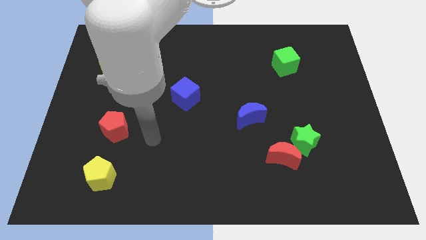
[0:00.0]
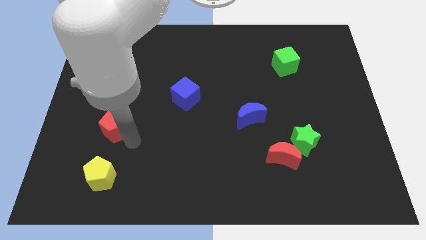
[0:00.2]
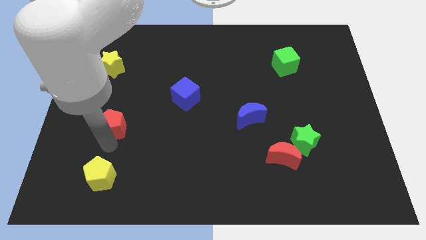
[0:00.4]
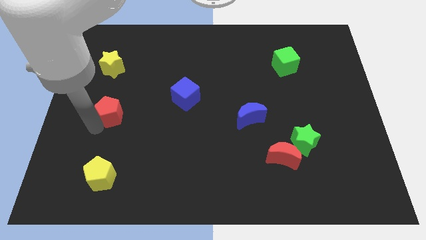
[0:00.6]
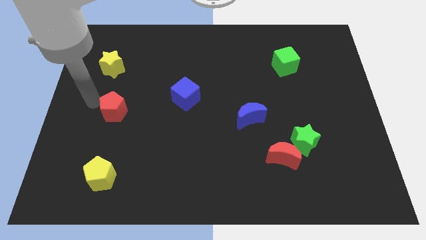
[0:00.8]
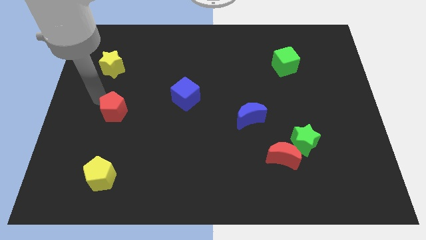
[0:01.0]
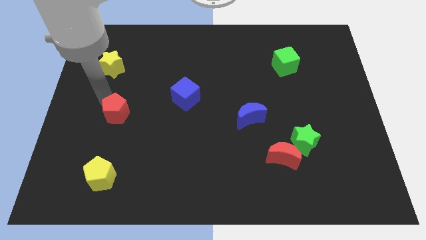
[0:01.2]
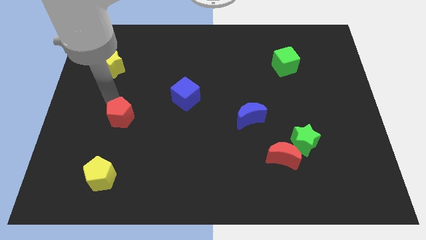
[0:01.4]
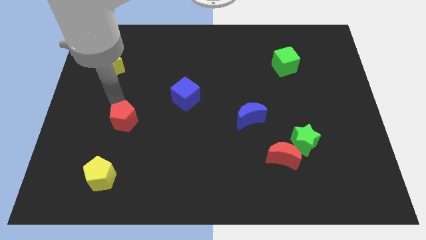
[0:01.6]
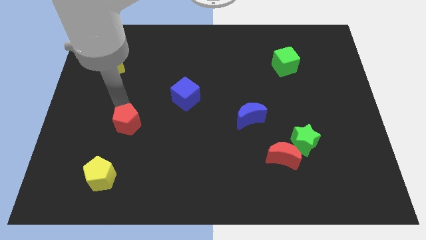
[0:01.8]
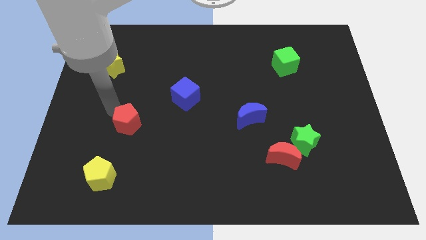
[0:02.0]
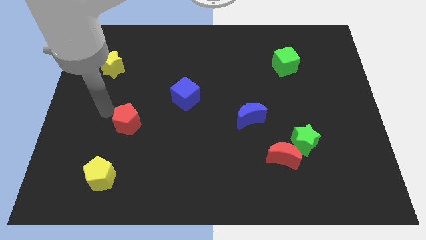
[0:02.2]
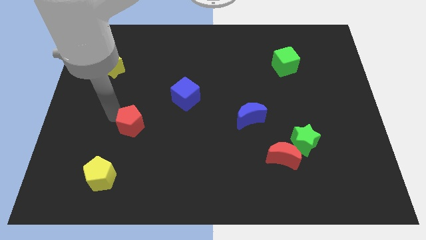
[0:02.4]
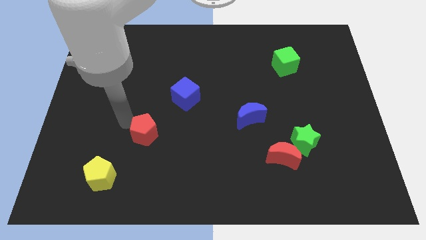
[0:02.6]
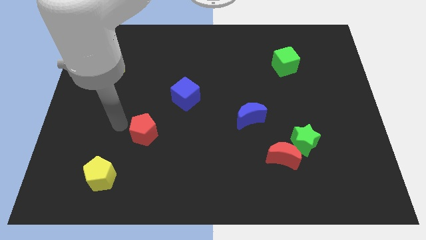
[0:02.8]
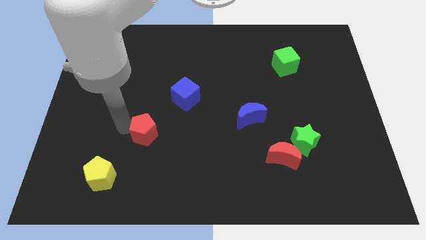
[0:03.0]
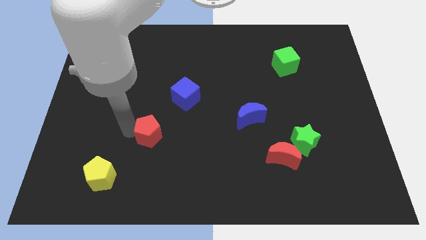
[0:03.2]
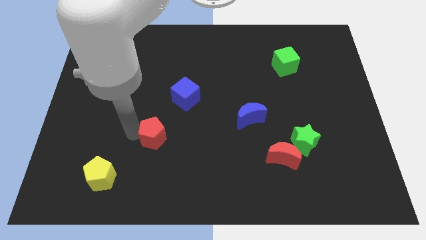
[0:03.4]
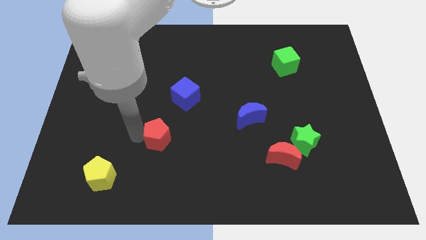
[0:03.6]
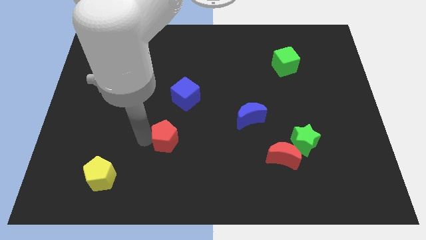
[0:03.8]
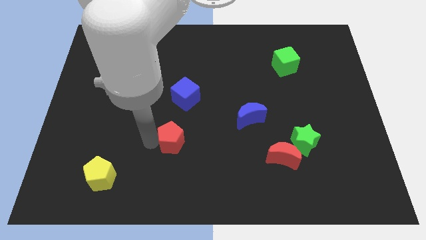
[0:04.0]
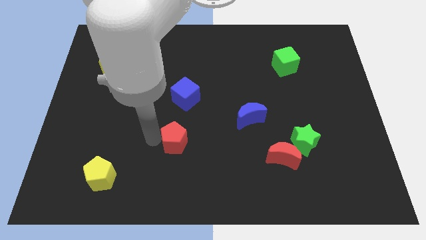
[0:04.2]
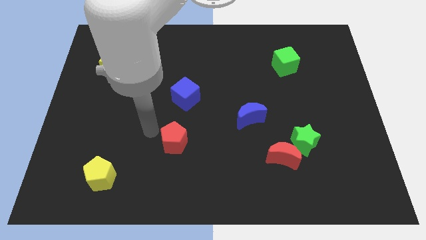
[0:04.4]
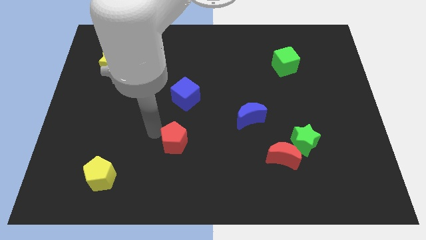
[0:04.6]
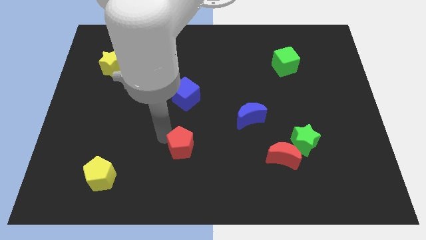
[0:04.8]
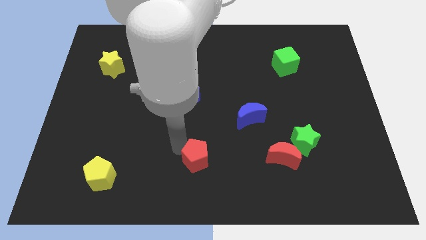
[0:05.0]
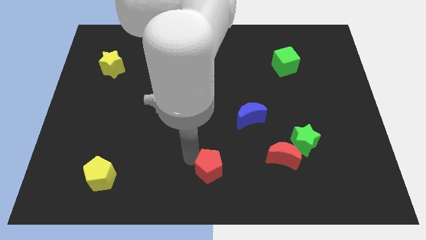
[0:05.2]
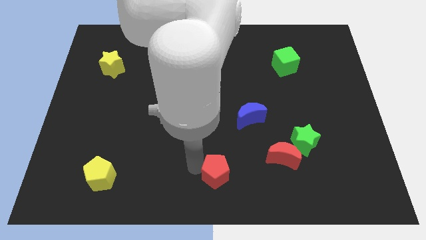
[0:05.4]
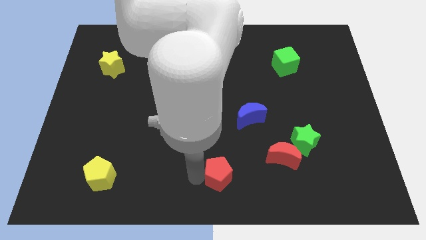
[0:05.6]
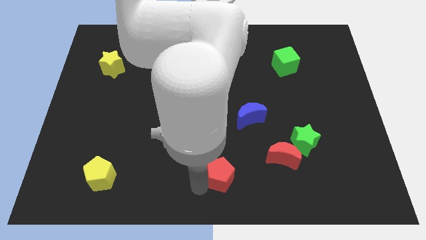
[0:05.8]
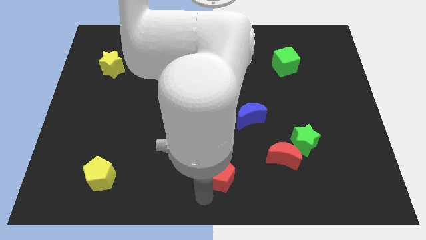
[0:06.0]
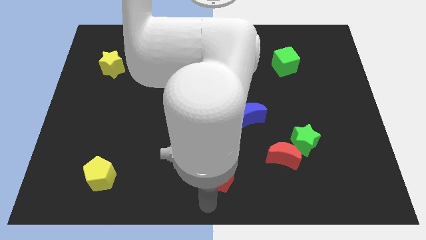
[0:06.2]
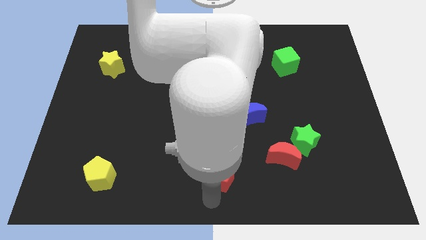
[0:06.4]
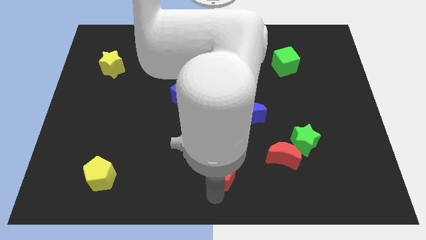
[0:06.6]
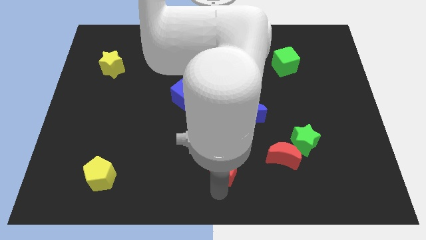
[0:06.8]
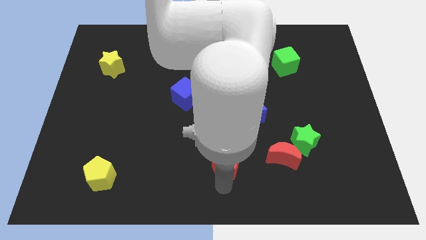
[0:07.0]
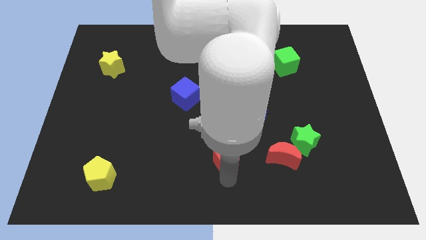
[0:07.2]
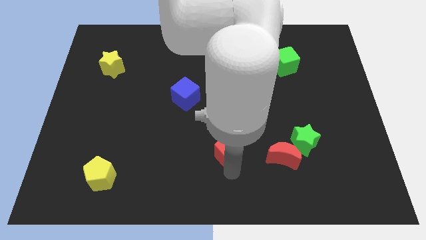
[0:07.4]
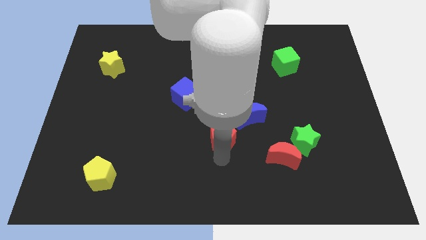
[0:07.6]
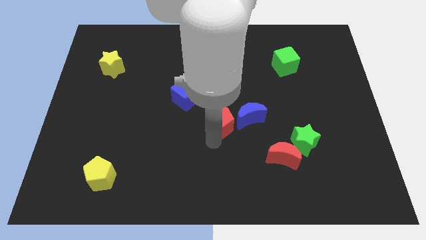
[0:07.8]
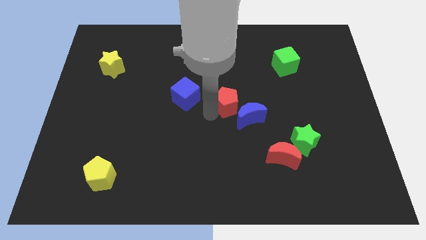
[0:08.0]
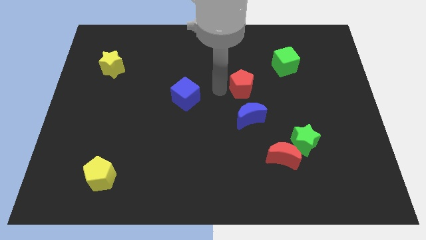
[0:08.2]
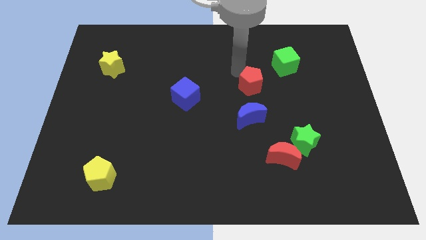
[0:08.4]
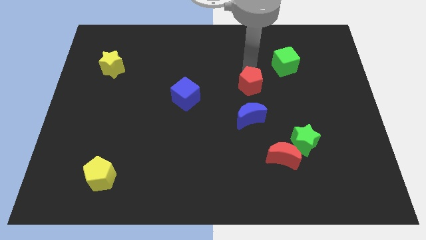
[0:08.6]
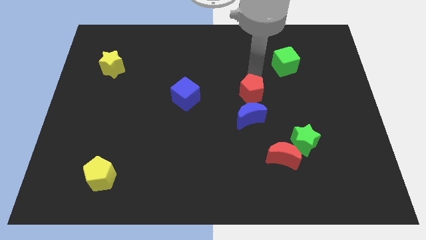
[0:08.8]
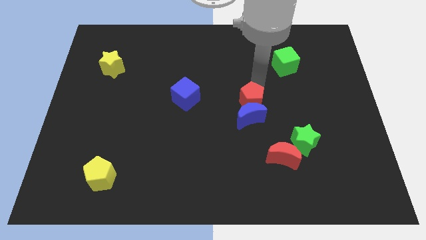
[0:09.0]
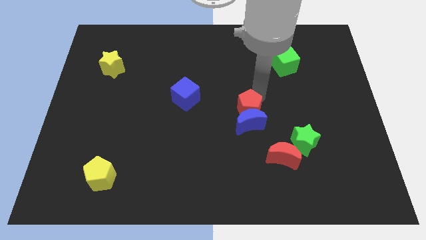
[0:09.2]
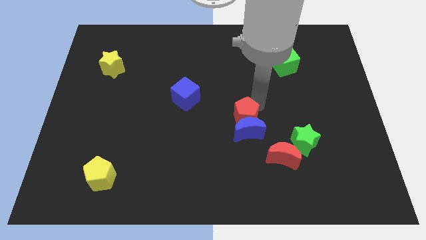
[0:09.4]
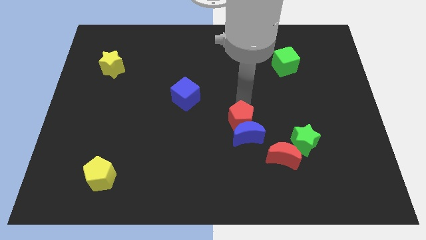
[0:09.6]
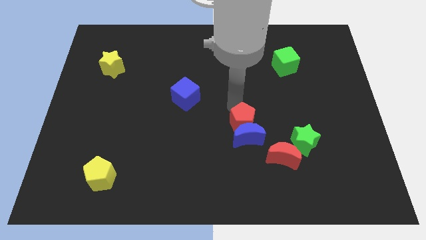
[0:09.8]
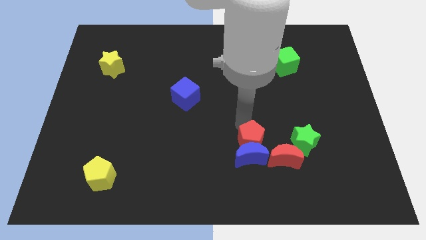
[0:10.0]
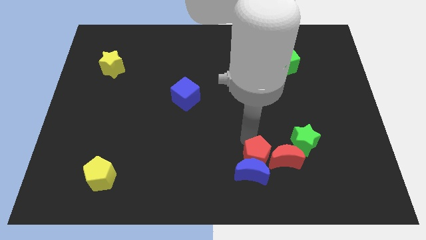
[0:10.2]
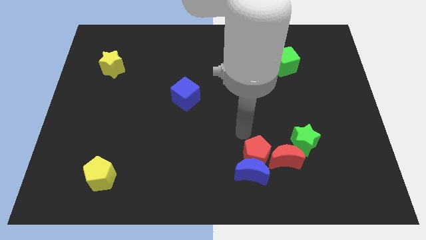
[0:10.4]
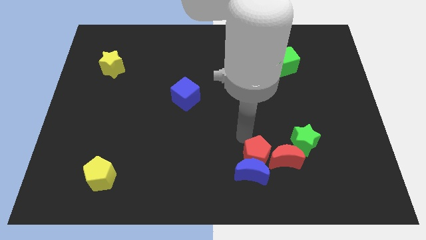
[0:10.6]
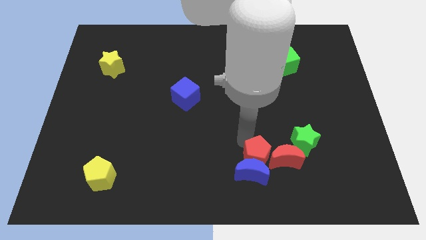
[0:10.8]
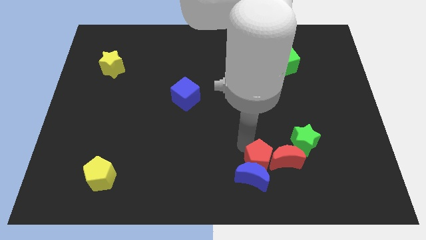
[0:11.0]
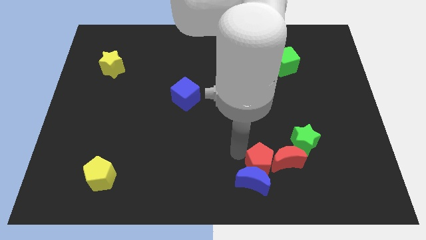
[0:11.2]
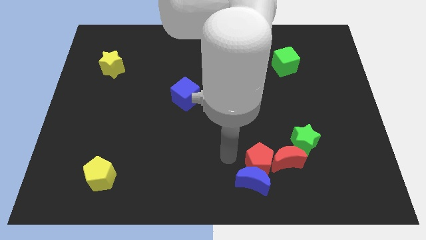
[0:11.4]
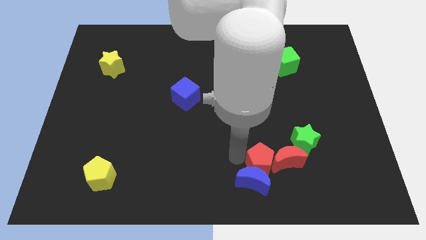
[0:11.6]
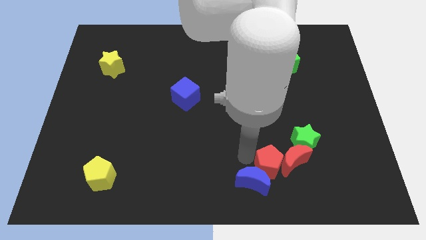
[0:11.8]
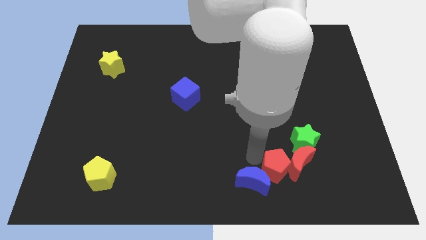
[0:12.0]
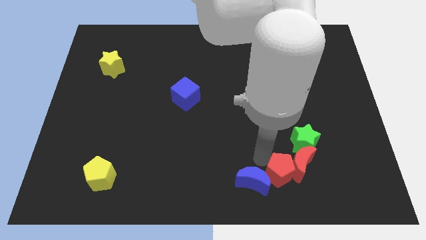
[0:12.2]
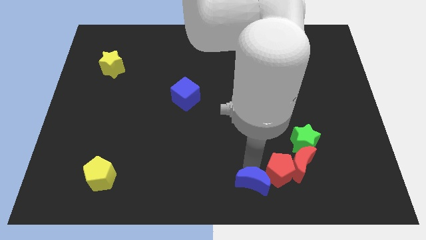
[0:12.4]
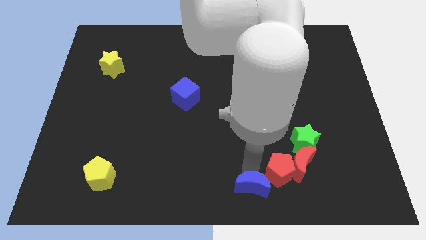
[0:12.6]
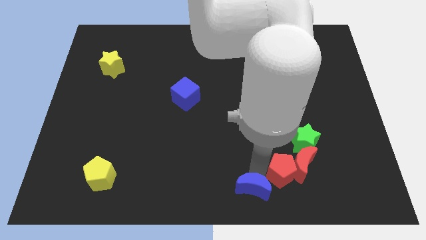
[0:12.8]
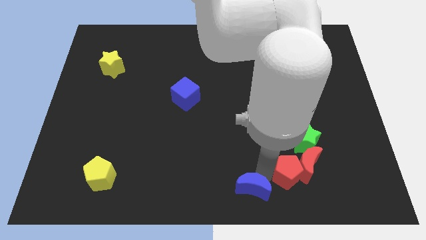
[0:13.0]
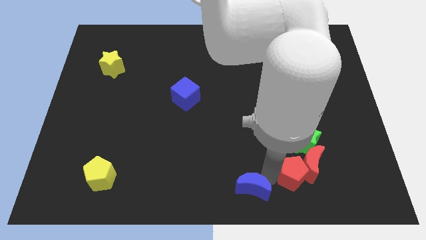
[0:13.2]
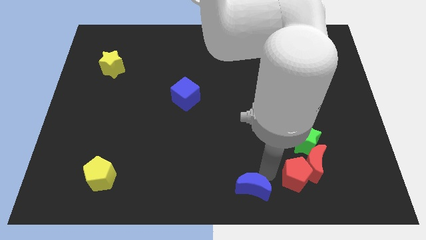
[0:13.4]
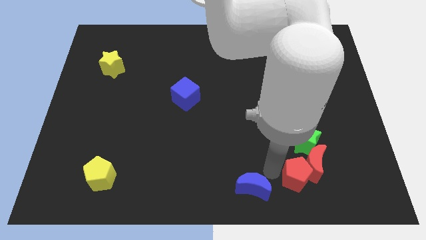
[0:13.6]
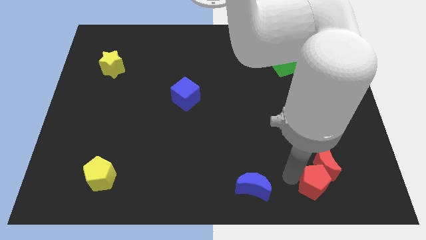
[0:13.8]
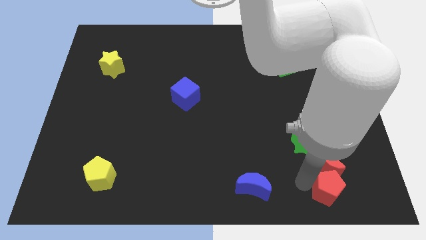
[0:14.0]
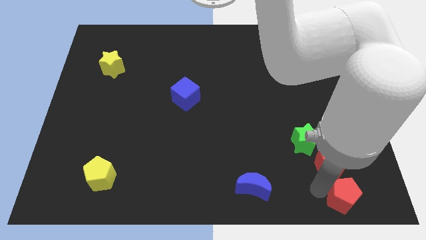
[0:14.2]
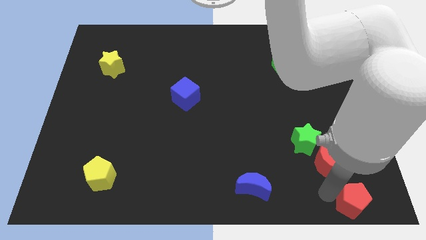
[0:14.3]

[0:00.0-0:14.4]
put the red pentagon to the bottom right corner
